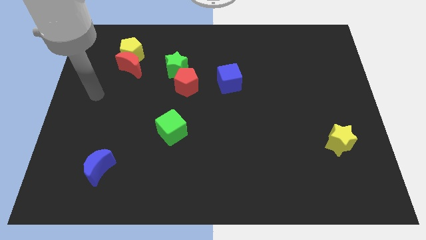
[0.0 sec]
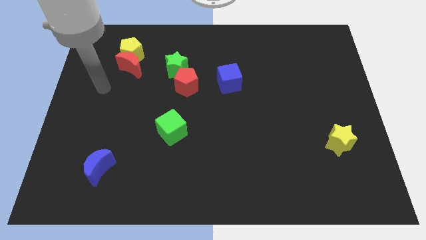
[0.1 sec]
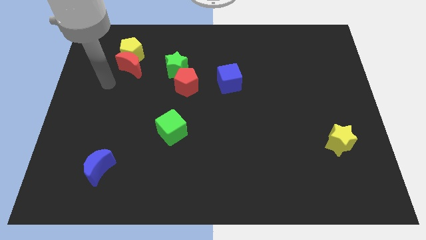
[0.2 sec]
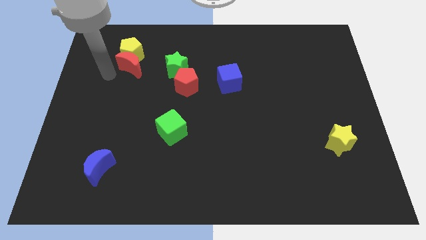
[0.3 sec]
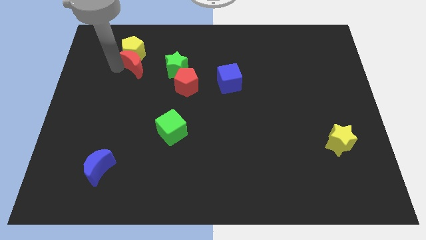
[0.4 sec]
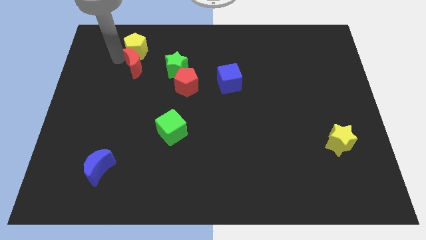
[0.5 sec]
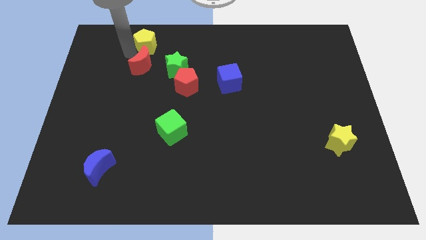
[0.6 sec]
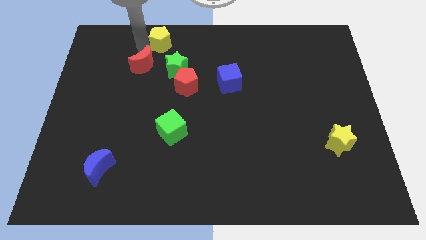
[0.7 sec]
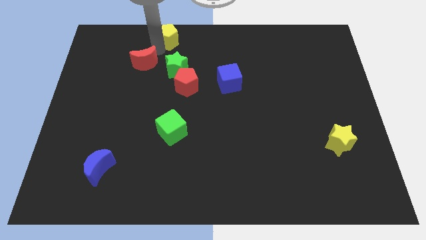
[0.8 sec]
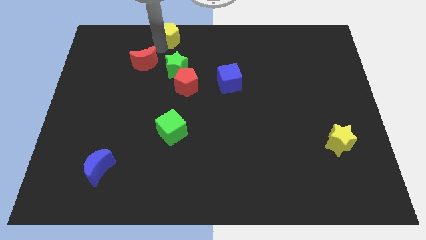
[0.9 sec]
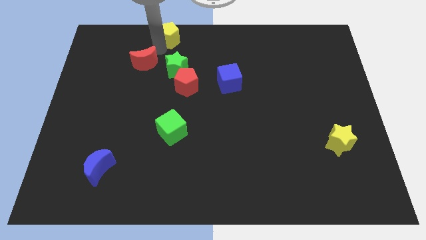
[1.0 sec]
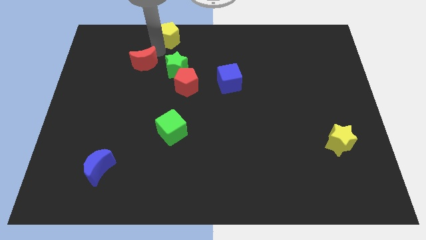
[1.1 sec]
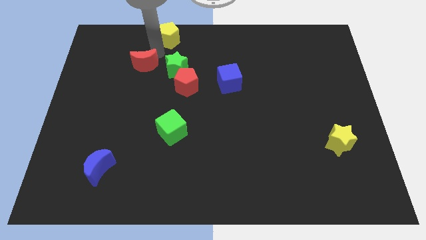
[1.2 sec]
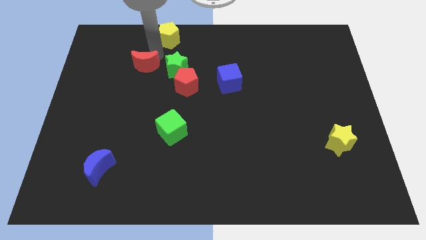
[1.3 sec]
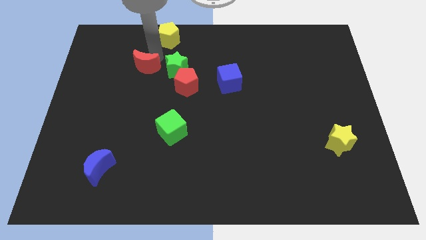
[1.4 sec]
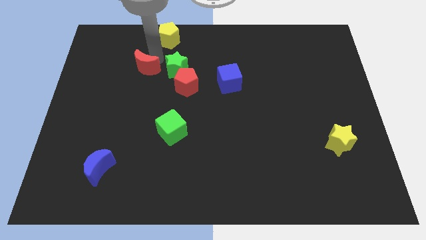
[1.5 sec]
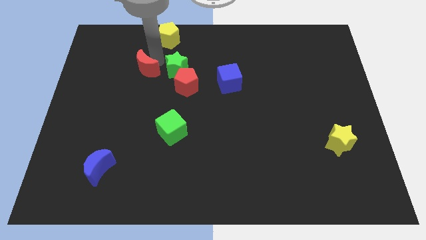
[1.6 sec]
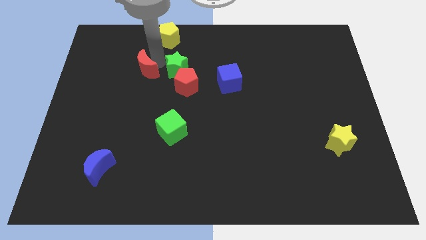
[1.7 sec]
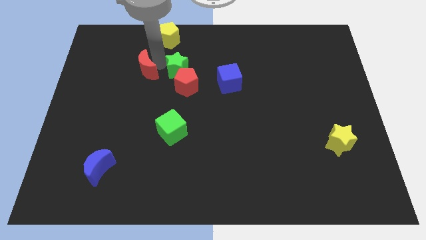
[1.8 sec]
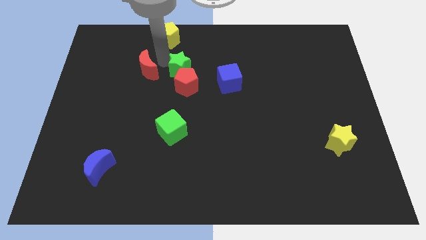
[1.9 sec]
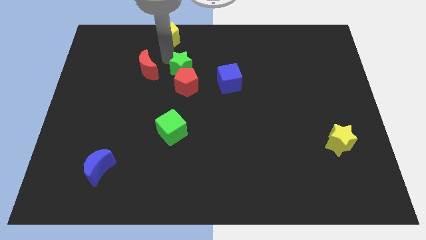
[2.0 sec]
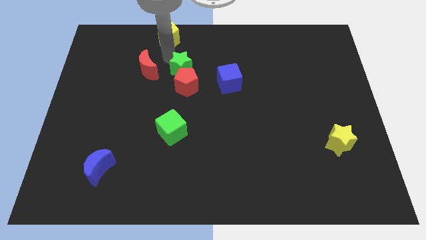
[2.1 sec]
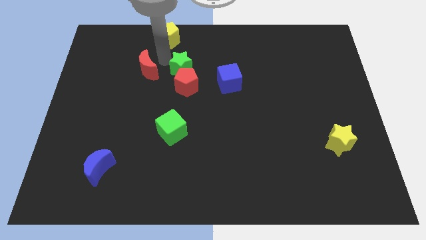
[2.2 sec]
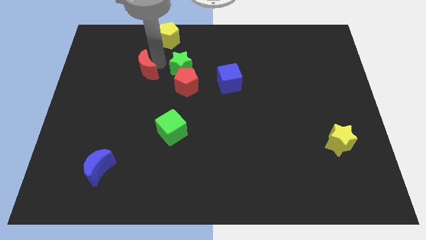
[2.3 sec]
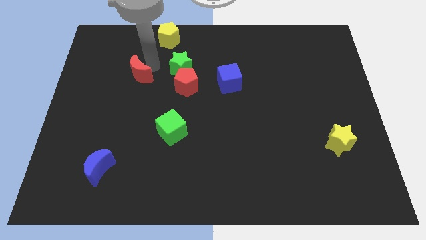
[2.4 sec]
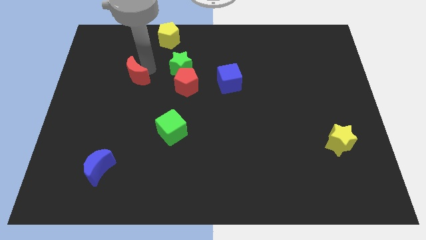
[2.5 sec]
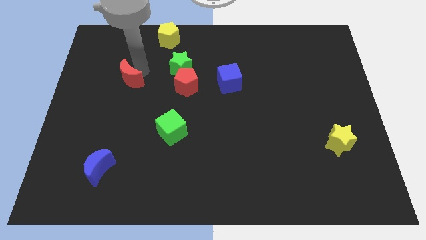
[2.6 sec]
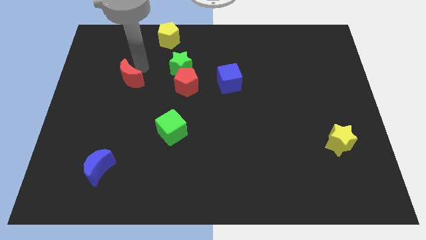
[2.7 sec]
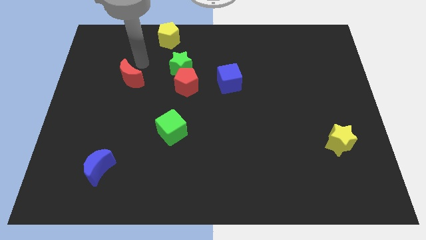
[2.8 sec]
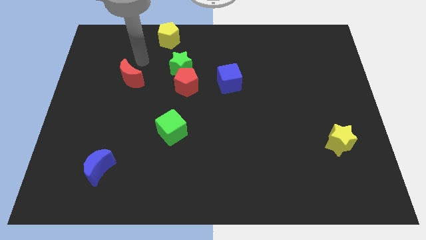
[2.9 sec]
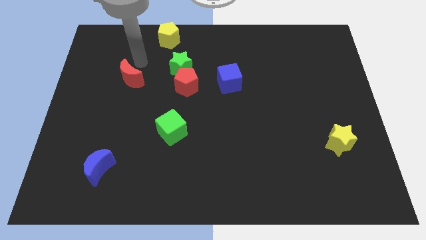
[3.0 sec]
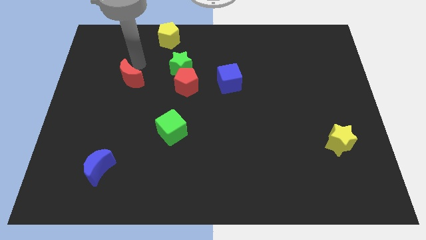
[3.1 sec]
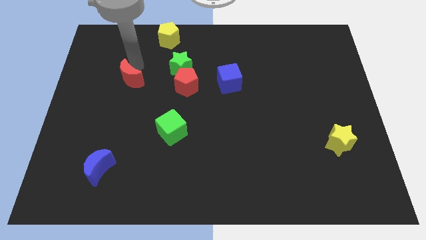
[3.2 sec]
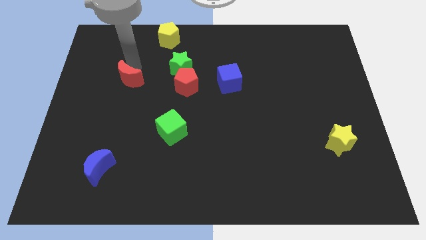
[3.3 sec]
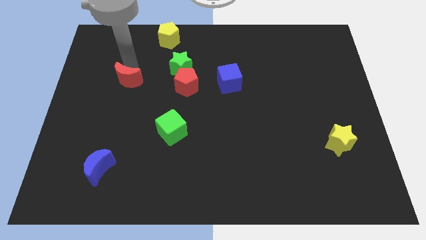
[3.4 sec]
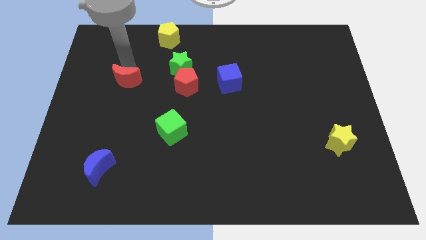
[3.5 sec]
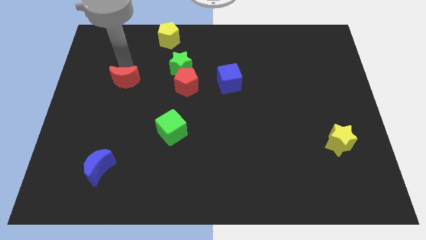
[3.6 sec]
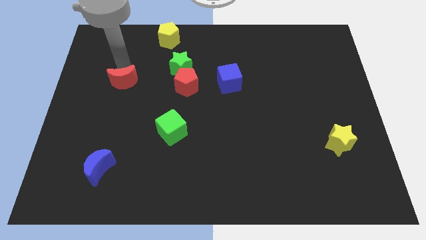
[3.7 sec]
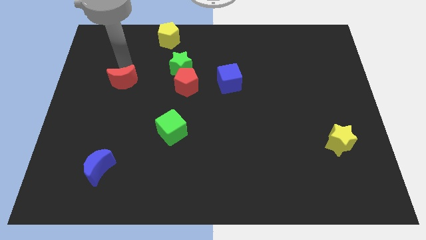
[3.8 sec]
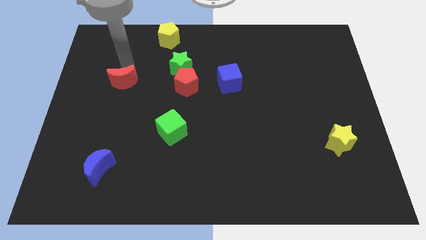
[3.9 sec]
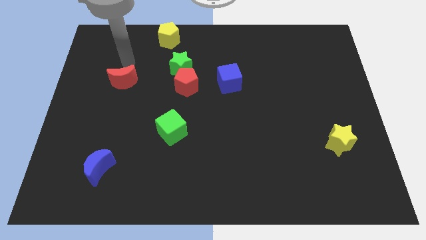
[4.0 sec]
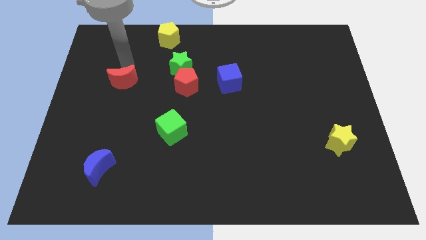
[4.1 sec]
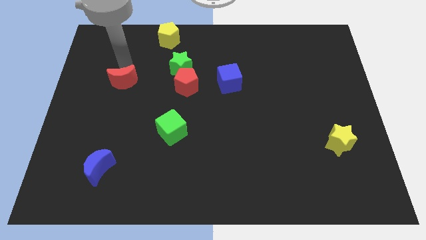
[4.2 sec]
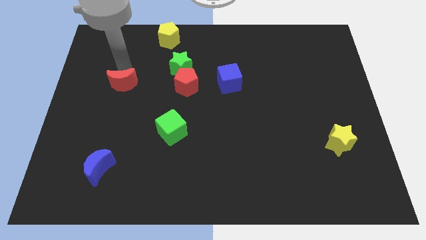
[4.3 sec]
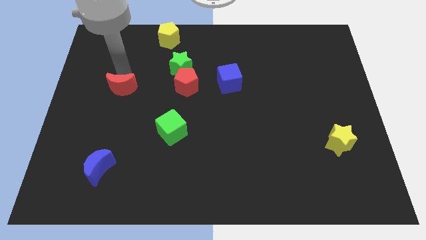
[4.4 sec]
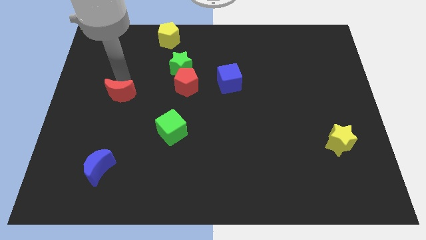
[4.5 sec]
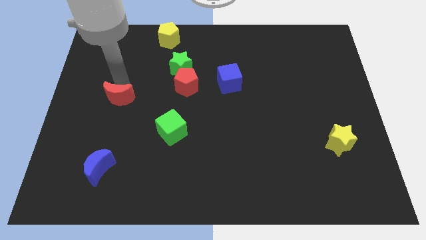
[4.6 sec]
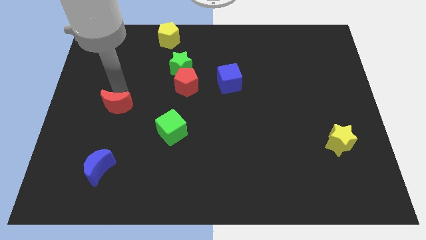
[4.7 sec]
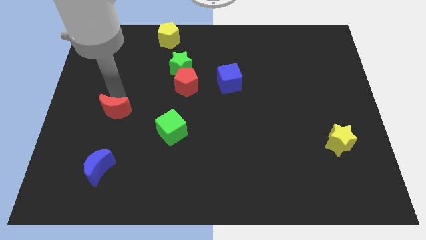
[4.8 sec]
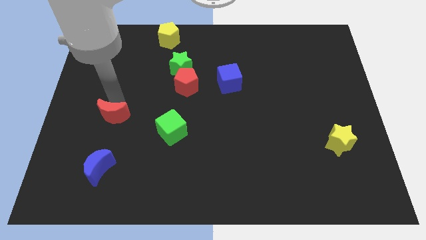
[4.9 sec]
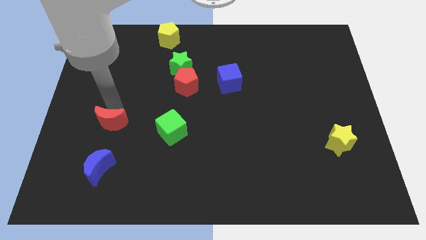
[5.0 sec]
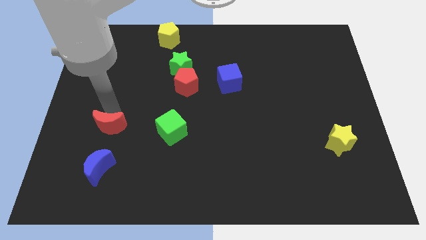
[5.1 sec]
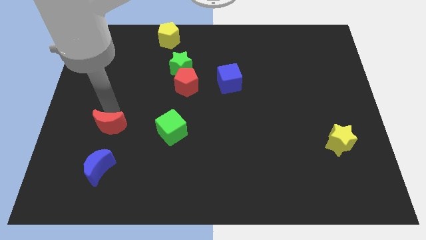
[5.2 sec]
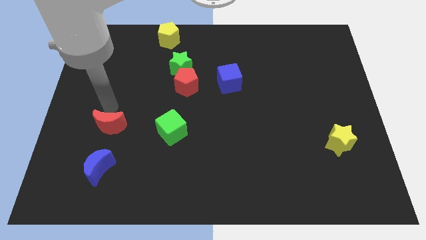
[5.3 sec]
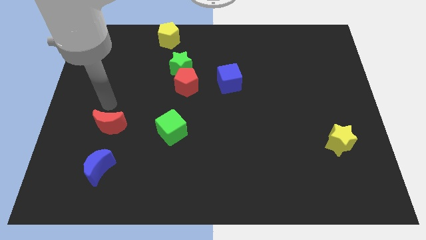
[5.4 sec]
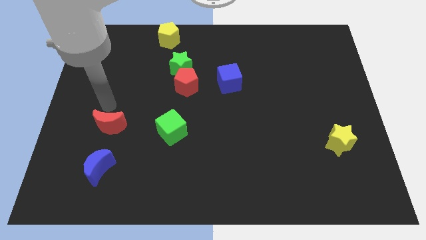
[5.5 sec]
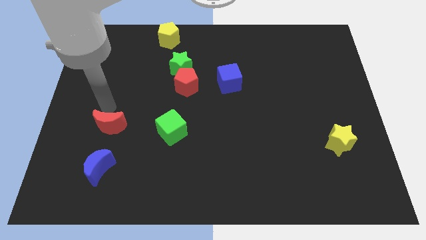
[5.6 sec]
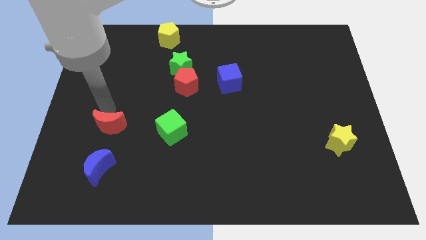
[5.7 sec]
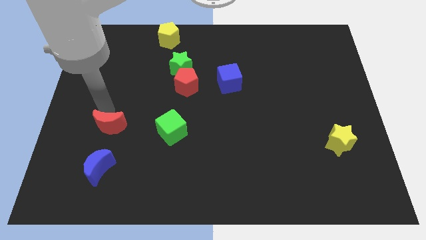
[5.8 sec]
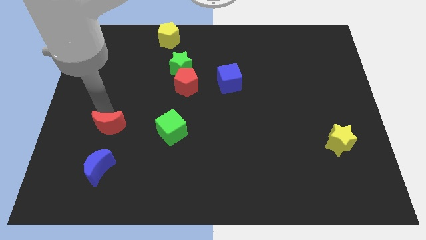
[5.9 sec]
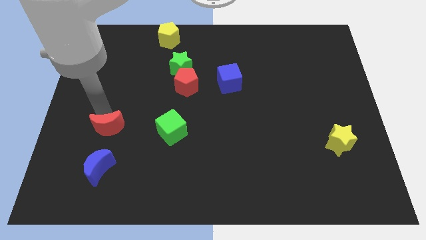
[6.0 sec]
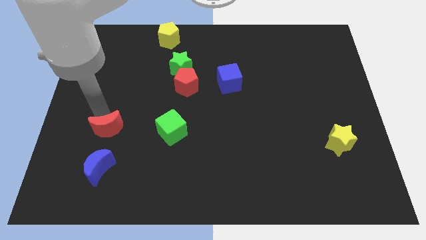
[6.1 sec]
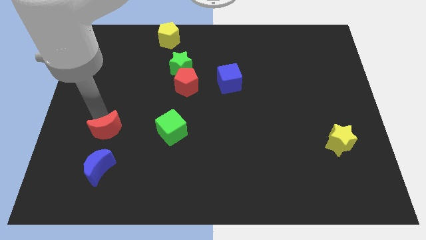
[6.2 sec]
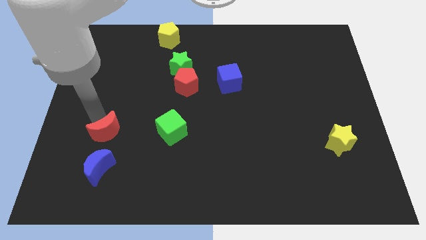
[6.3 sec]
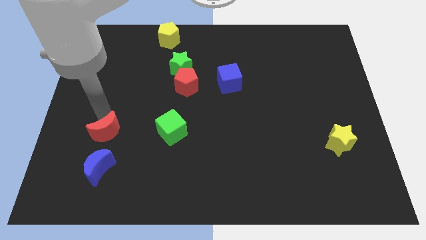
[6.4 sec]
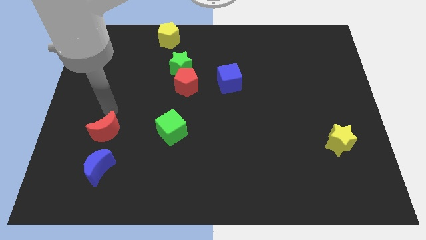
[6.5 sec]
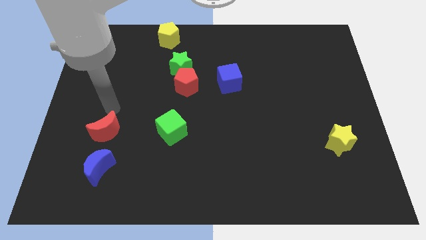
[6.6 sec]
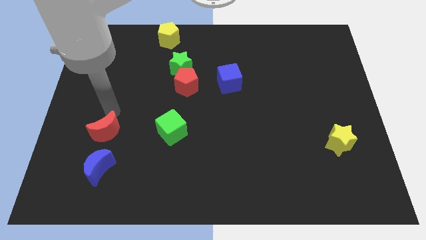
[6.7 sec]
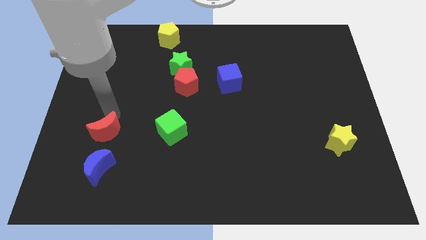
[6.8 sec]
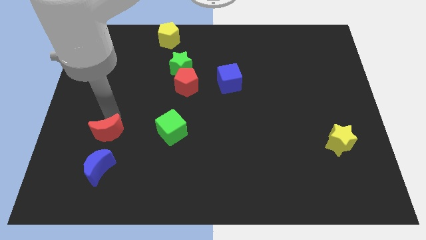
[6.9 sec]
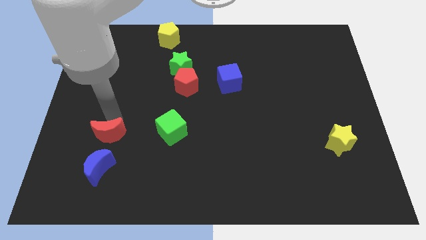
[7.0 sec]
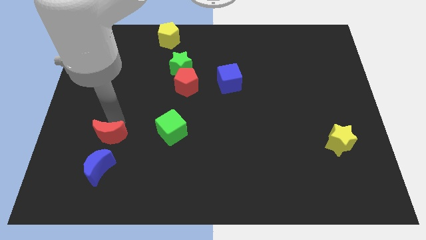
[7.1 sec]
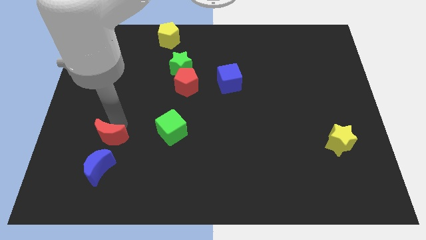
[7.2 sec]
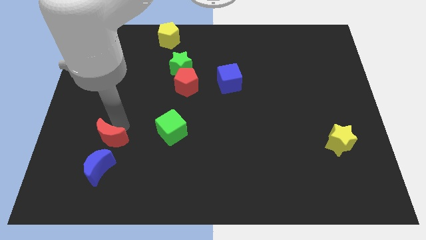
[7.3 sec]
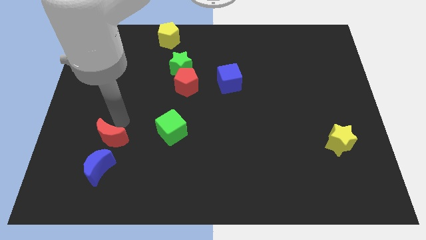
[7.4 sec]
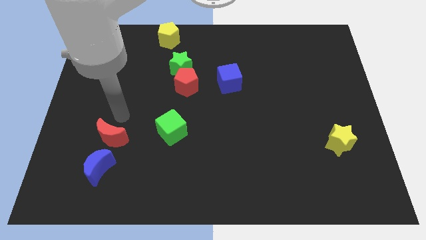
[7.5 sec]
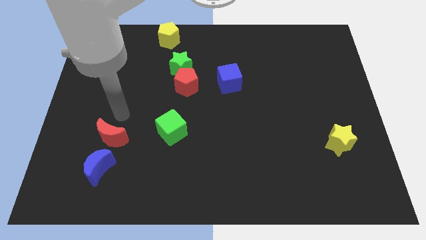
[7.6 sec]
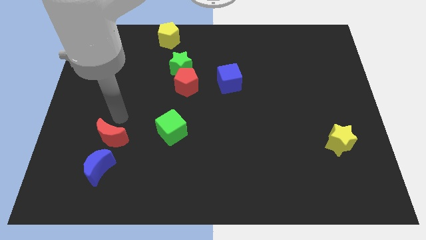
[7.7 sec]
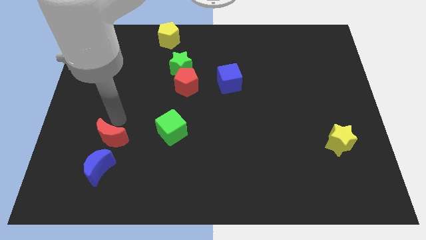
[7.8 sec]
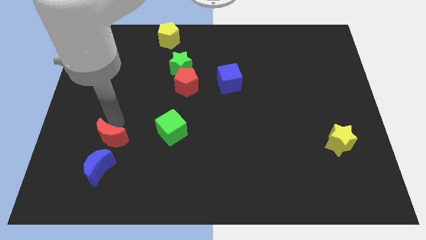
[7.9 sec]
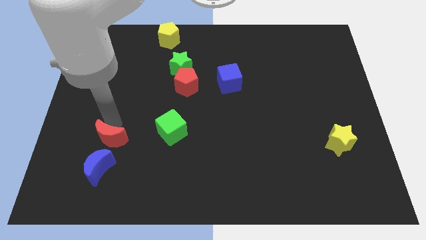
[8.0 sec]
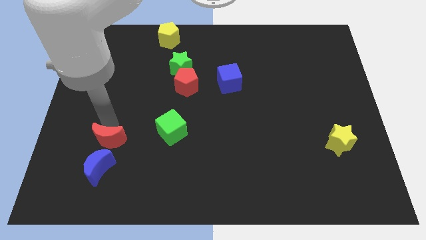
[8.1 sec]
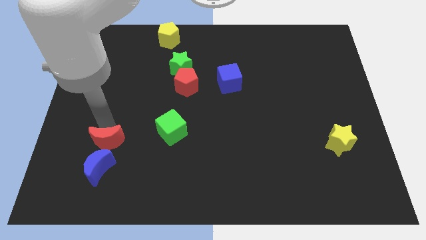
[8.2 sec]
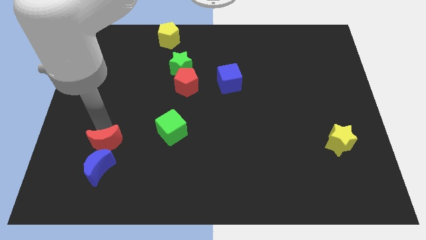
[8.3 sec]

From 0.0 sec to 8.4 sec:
put the red moon next to the blue moon
